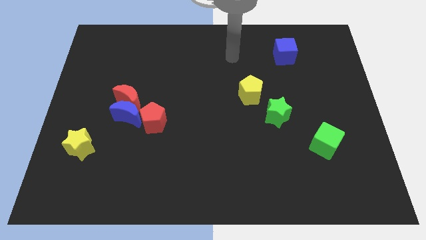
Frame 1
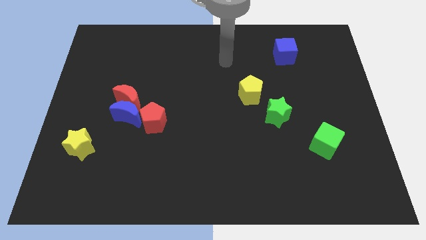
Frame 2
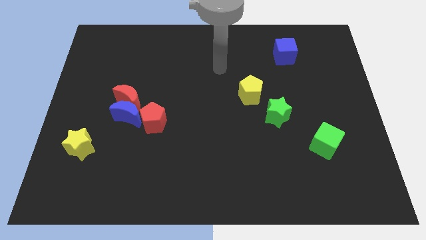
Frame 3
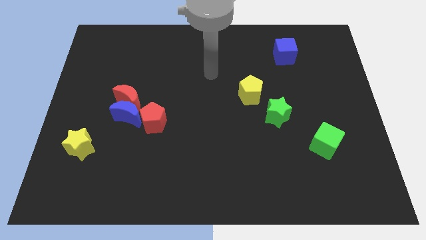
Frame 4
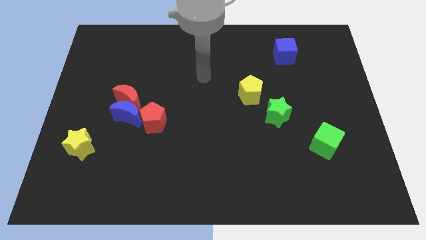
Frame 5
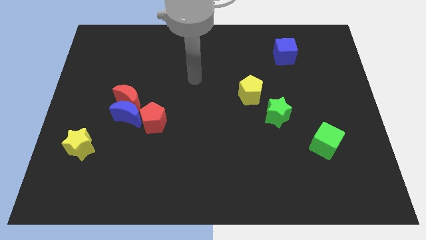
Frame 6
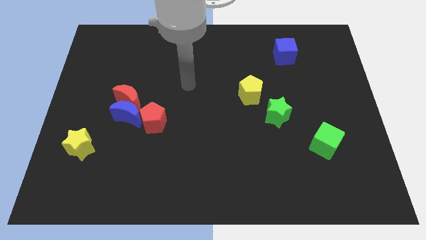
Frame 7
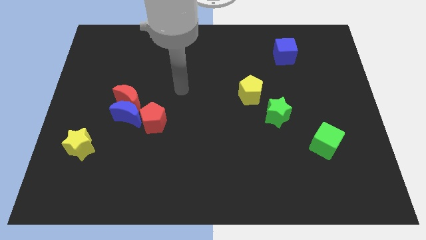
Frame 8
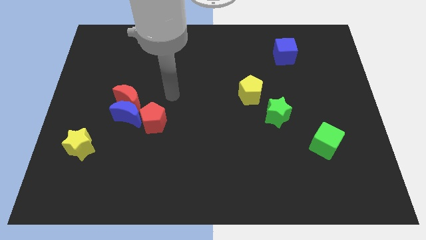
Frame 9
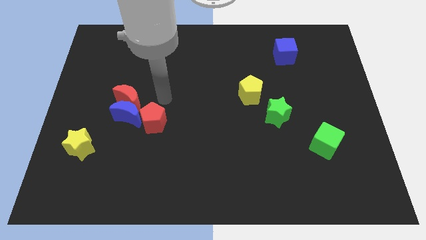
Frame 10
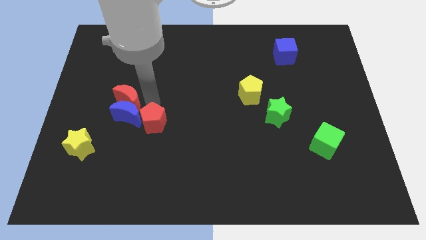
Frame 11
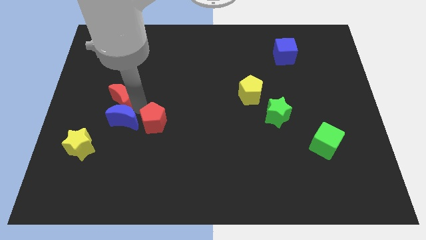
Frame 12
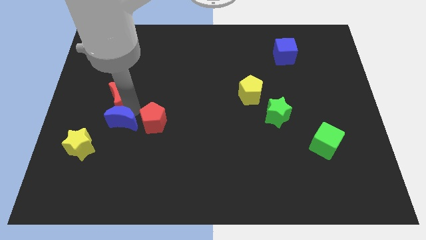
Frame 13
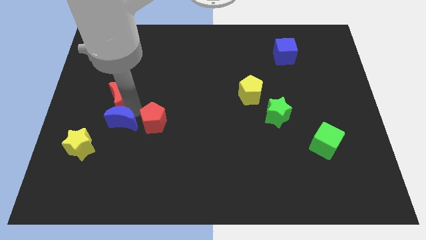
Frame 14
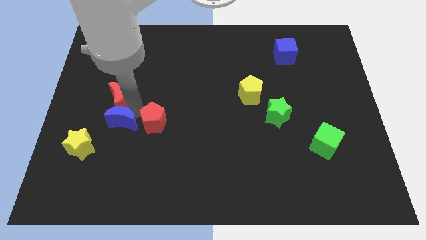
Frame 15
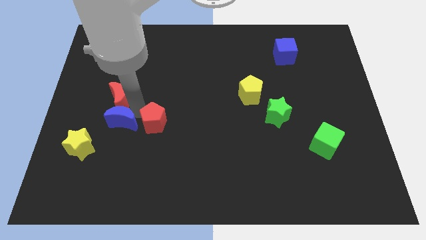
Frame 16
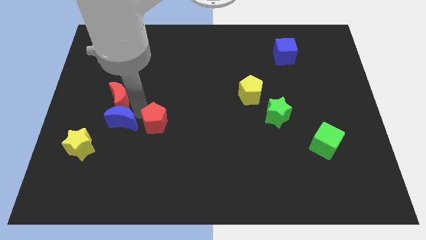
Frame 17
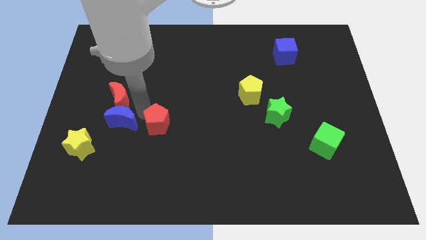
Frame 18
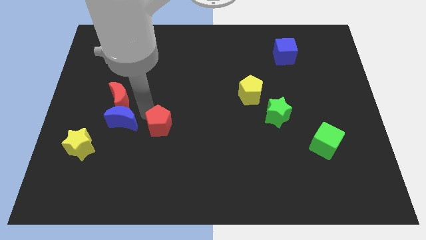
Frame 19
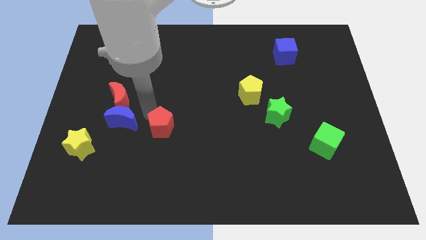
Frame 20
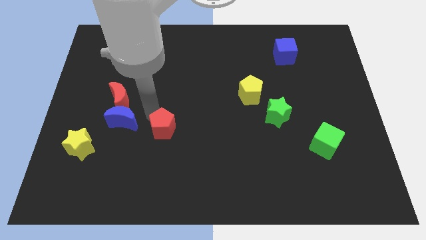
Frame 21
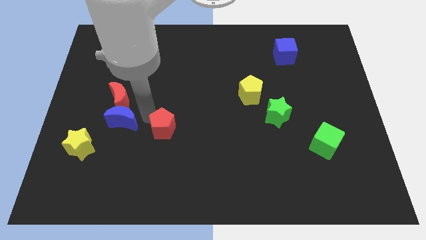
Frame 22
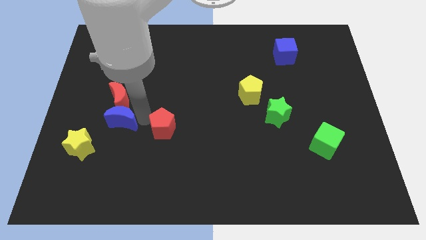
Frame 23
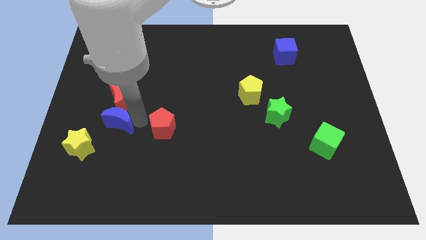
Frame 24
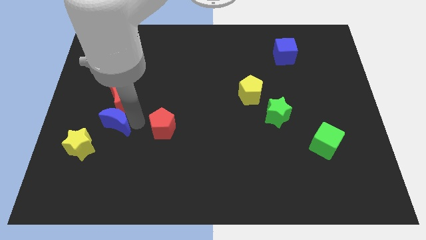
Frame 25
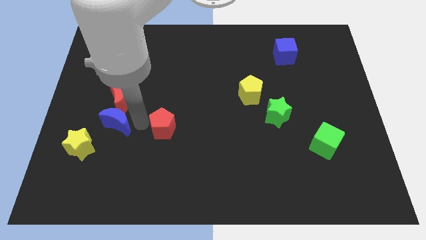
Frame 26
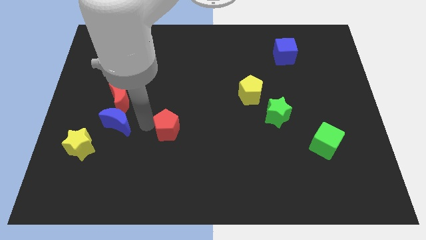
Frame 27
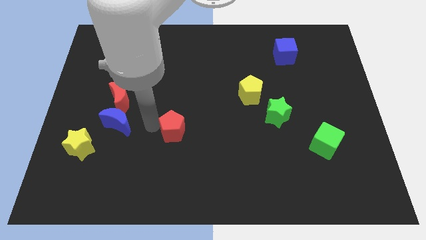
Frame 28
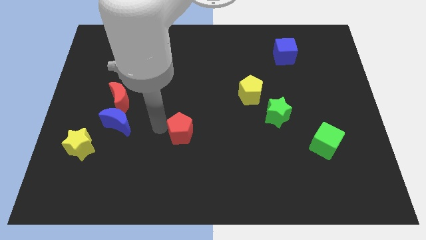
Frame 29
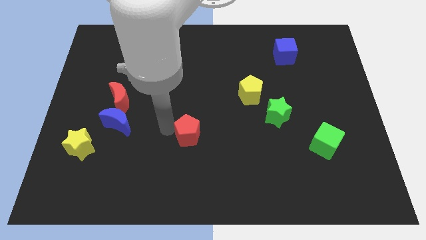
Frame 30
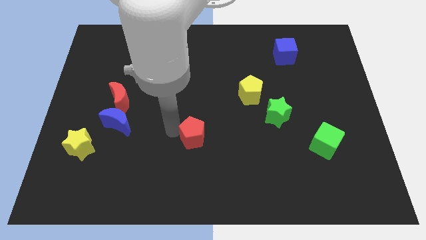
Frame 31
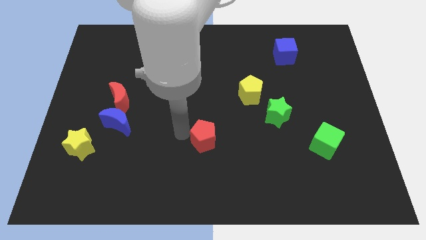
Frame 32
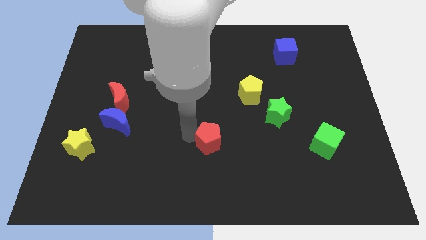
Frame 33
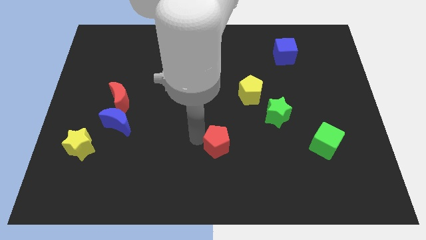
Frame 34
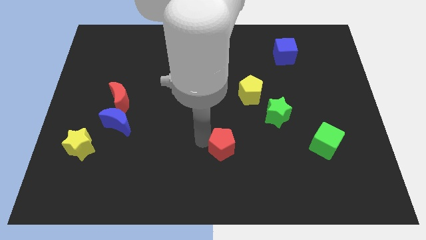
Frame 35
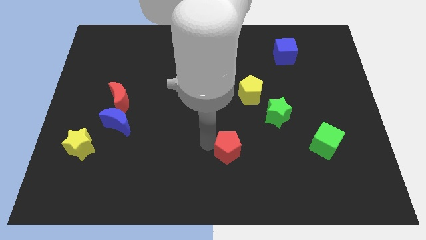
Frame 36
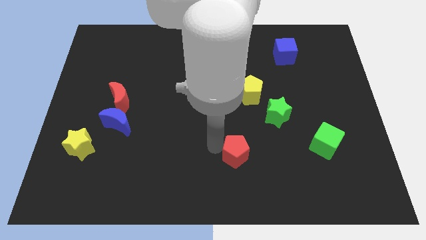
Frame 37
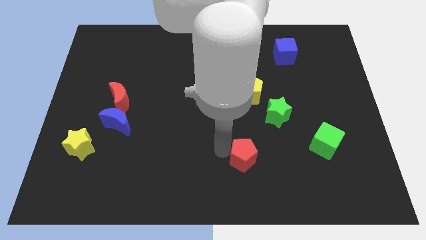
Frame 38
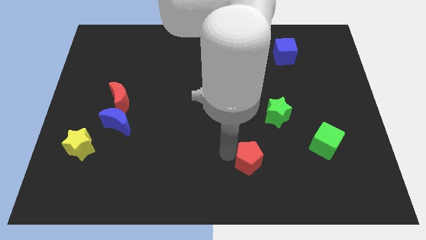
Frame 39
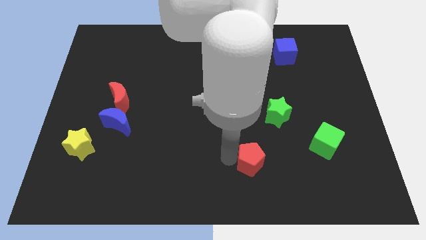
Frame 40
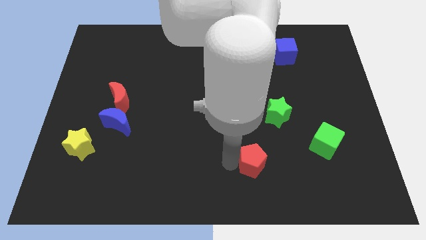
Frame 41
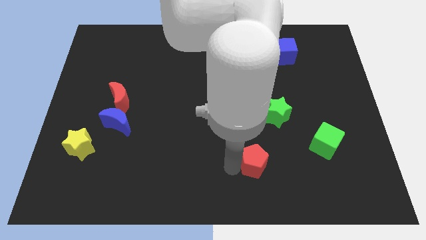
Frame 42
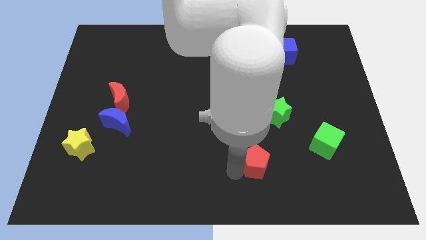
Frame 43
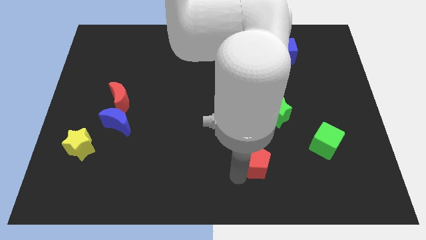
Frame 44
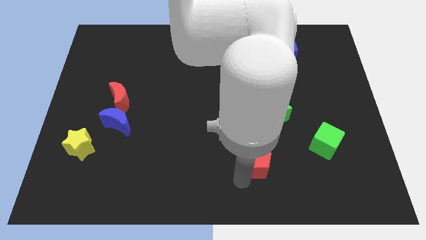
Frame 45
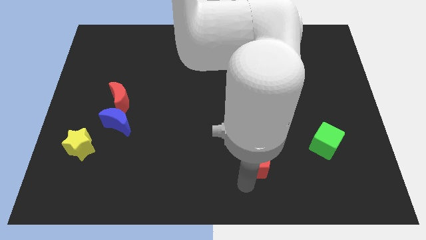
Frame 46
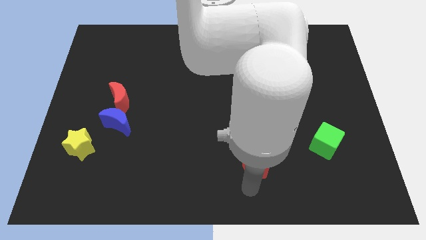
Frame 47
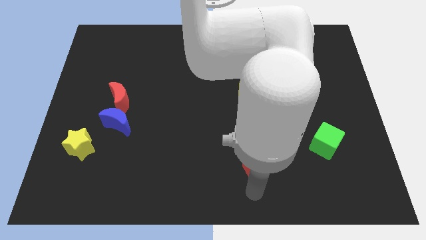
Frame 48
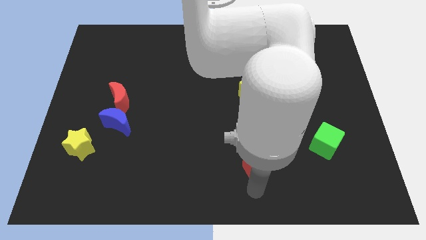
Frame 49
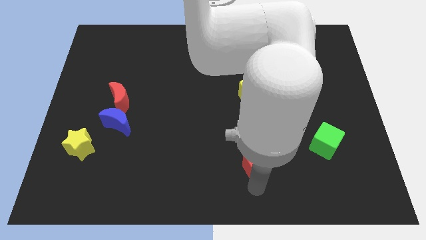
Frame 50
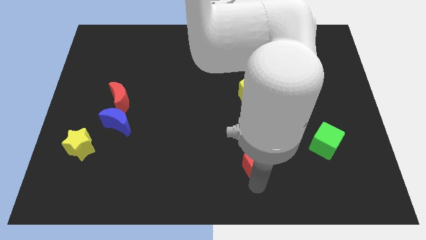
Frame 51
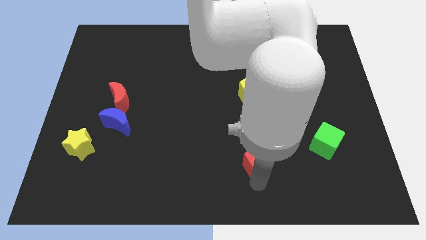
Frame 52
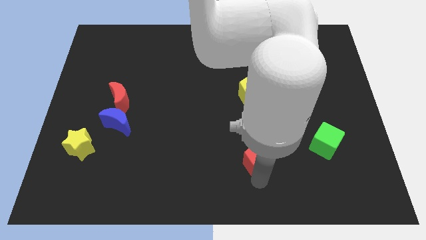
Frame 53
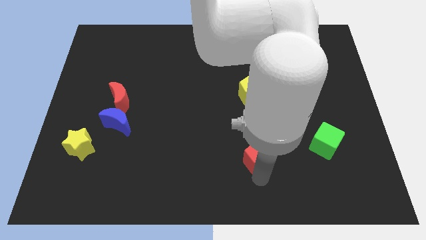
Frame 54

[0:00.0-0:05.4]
move the red pentagon to the bottom of the green star

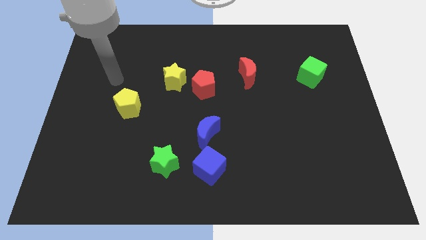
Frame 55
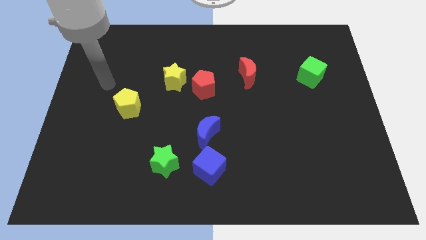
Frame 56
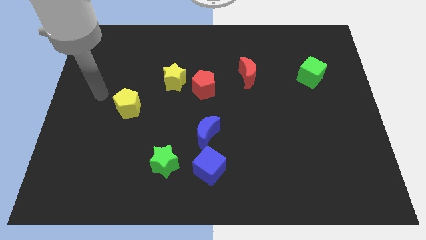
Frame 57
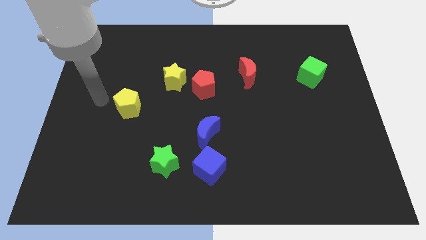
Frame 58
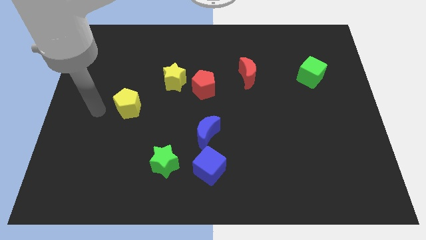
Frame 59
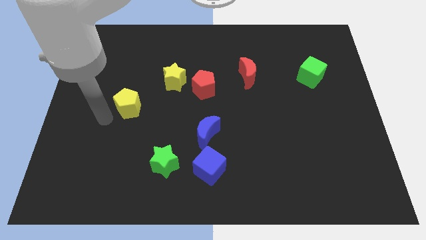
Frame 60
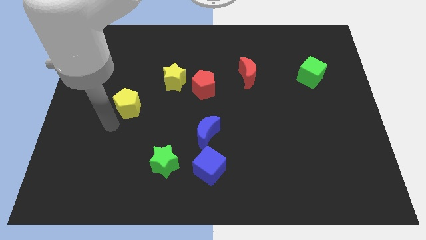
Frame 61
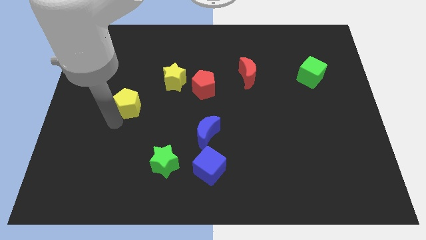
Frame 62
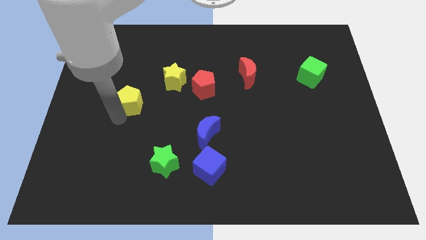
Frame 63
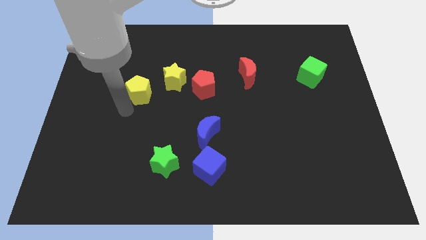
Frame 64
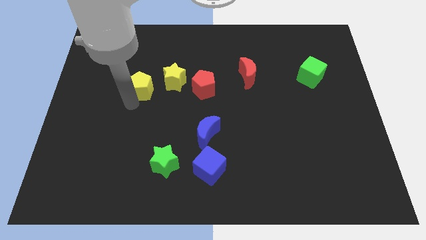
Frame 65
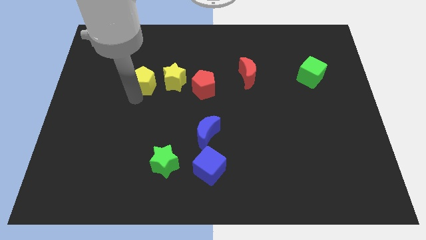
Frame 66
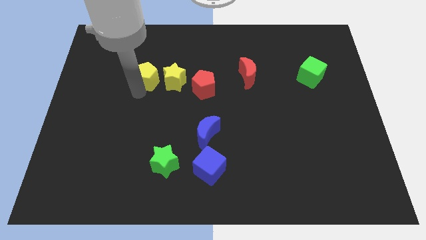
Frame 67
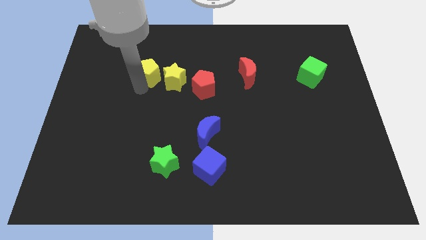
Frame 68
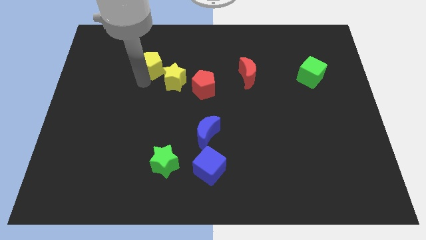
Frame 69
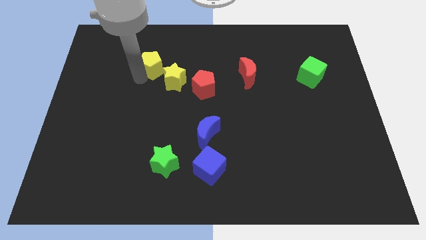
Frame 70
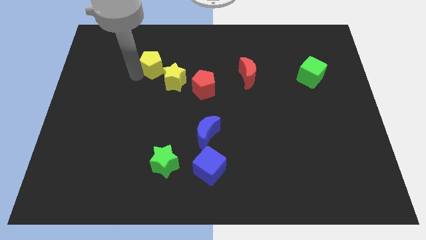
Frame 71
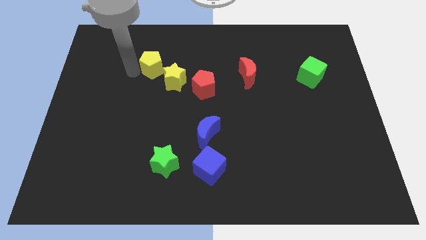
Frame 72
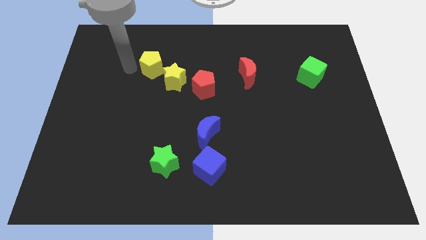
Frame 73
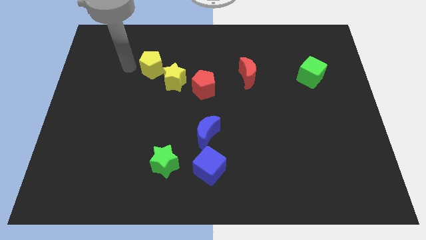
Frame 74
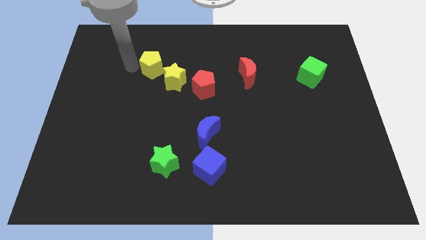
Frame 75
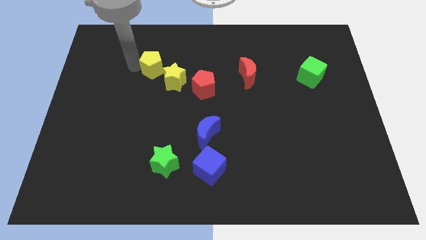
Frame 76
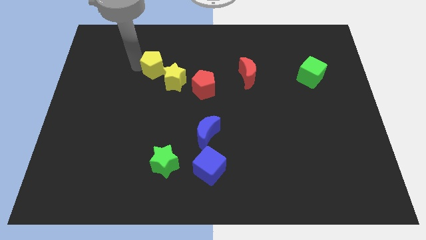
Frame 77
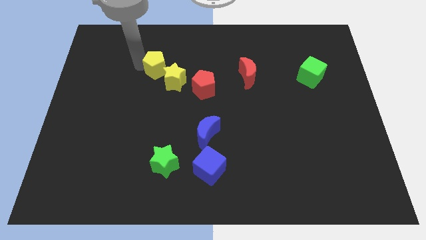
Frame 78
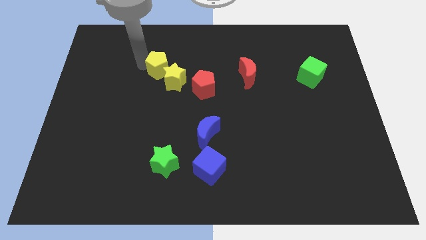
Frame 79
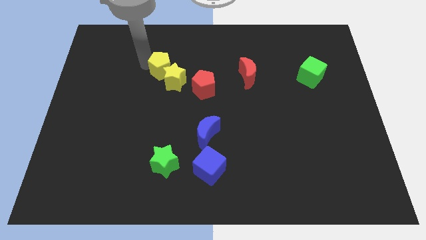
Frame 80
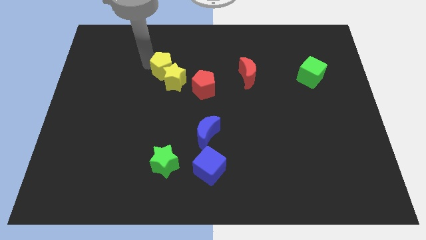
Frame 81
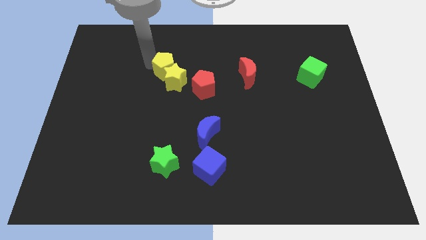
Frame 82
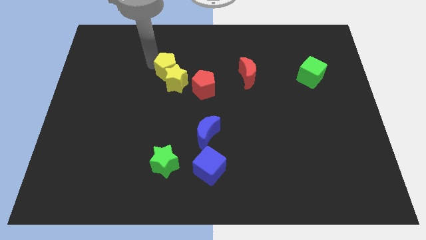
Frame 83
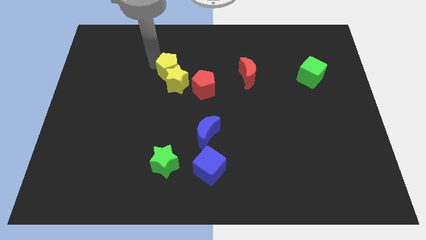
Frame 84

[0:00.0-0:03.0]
put the yellow pentagon to the top right side of the yellow star
